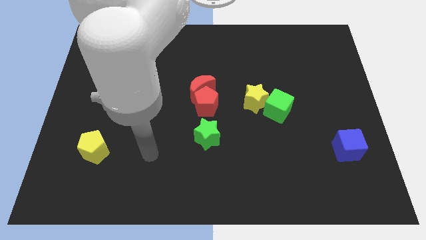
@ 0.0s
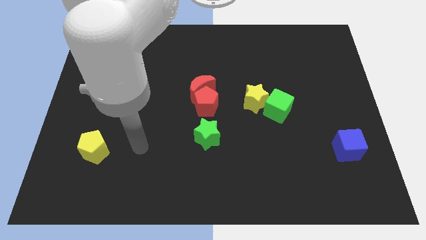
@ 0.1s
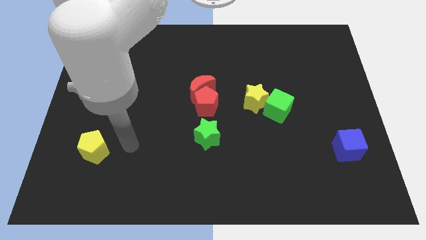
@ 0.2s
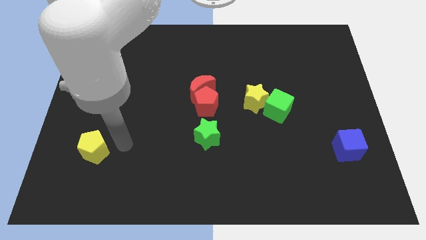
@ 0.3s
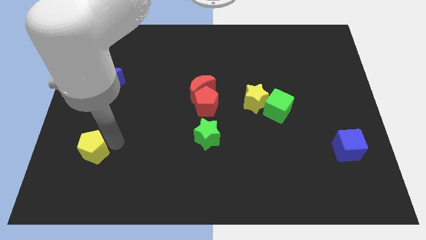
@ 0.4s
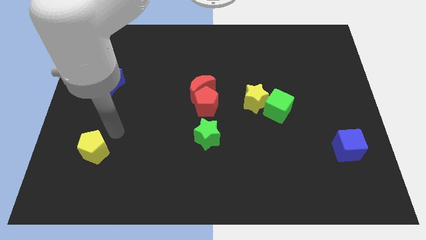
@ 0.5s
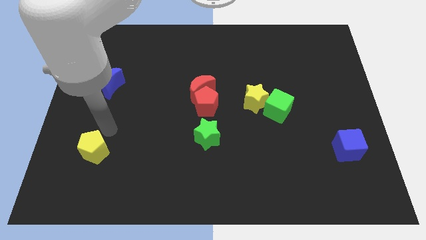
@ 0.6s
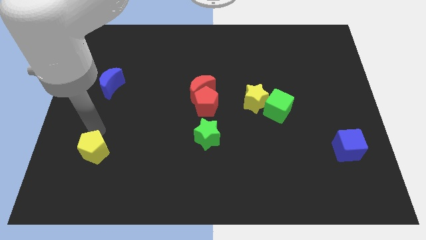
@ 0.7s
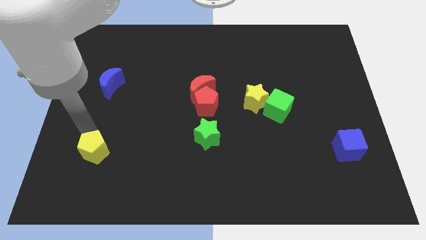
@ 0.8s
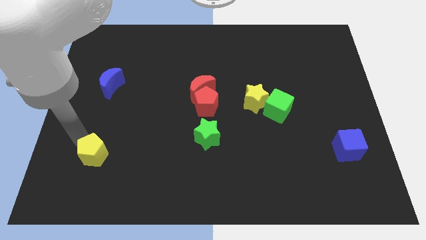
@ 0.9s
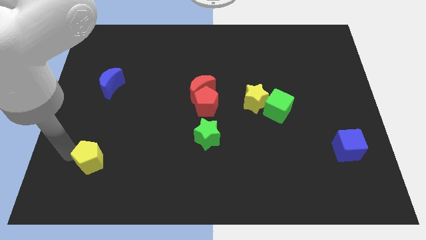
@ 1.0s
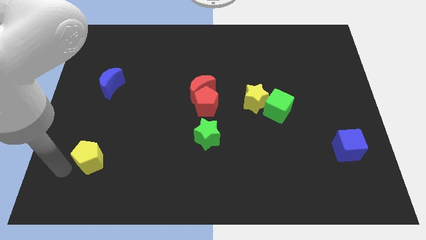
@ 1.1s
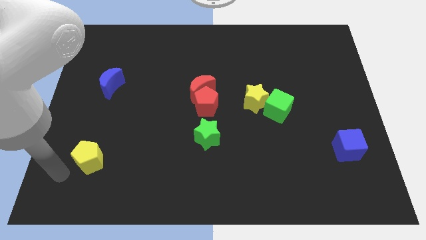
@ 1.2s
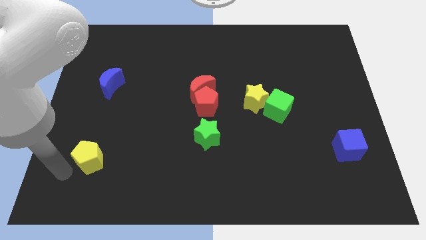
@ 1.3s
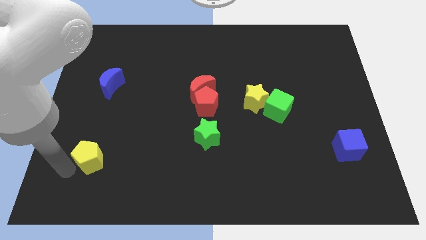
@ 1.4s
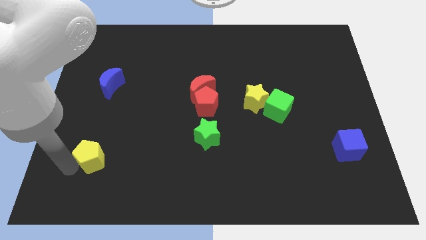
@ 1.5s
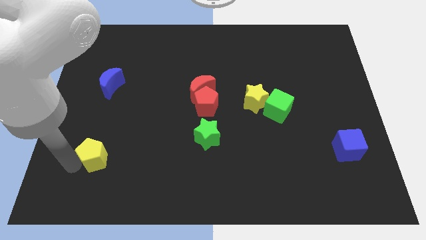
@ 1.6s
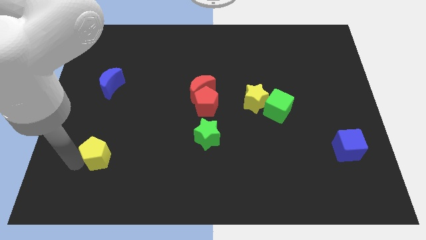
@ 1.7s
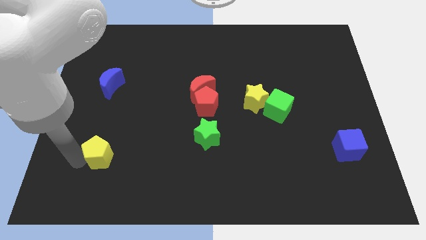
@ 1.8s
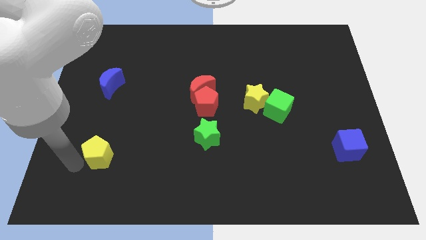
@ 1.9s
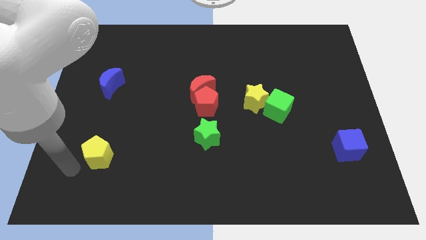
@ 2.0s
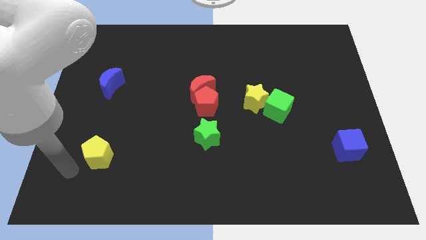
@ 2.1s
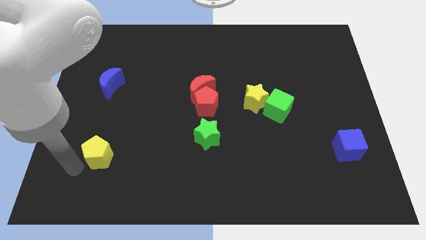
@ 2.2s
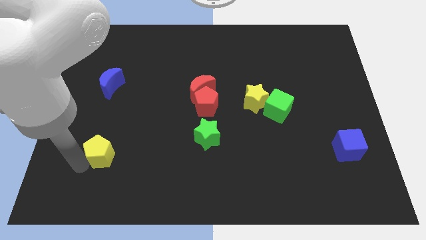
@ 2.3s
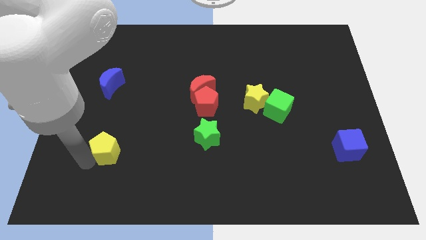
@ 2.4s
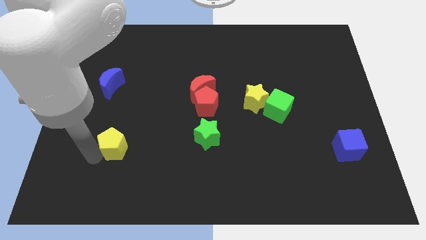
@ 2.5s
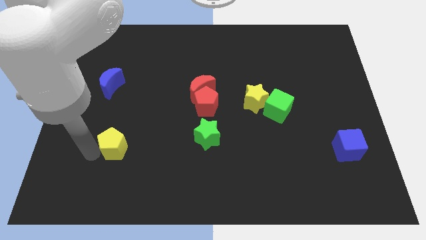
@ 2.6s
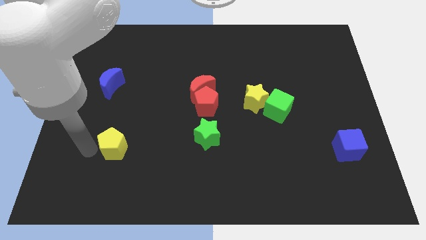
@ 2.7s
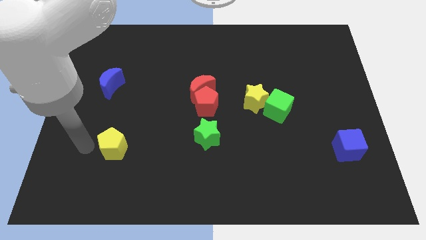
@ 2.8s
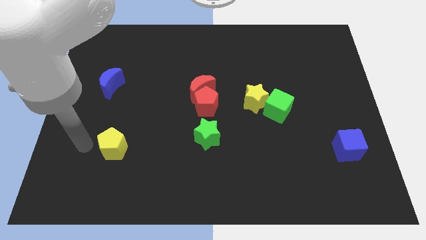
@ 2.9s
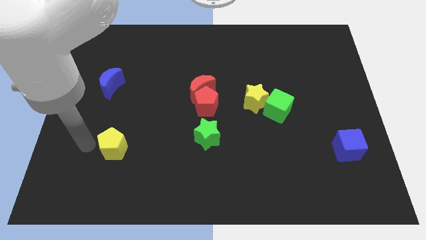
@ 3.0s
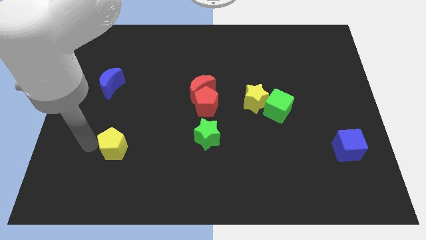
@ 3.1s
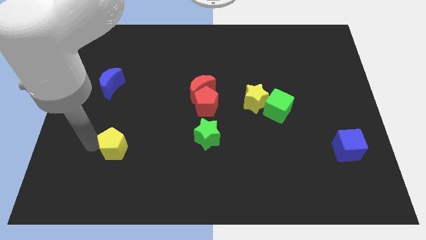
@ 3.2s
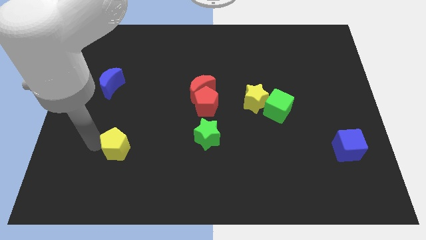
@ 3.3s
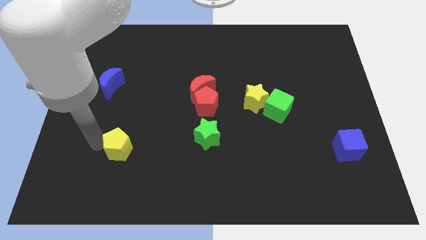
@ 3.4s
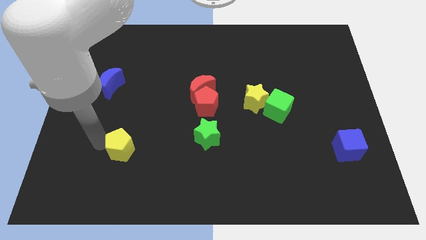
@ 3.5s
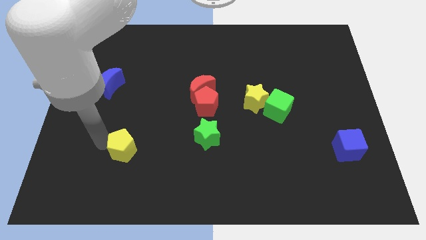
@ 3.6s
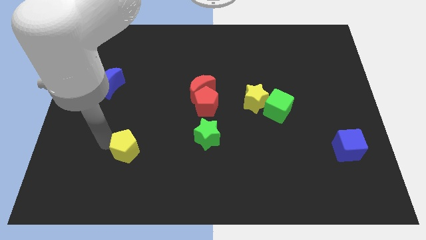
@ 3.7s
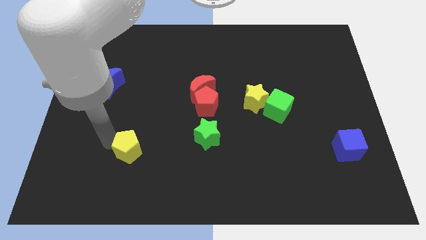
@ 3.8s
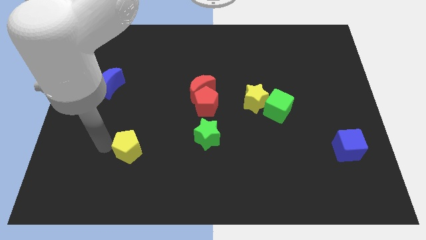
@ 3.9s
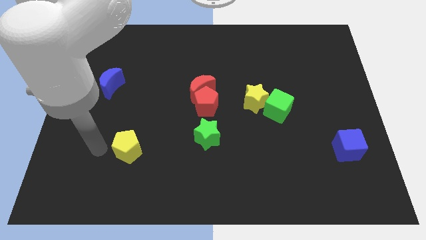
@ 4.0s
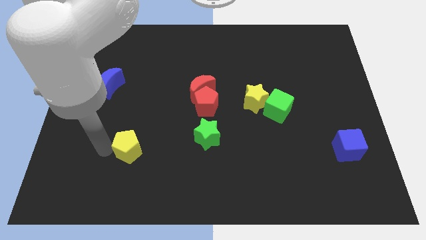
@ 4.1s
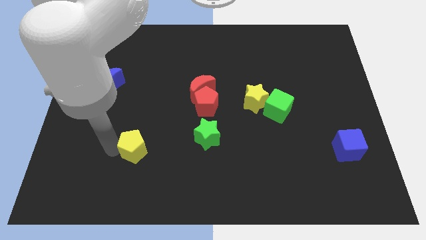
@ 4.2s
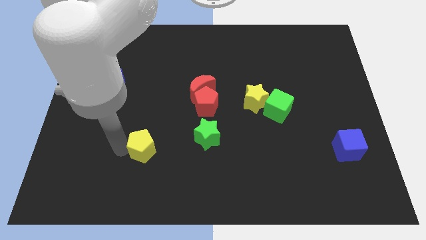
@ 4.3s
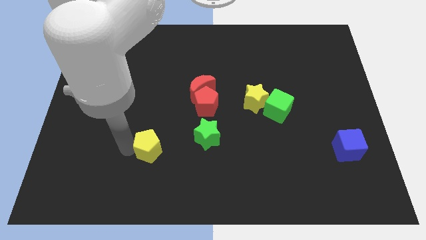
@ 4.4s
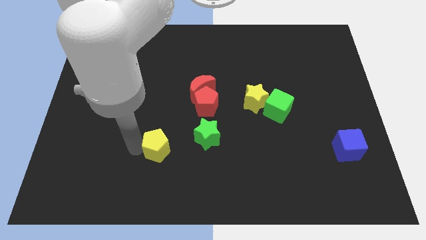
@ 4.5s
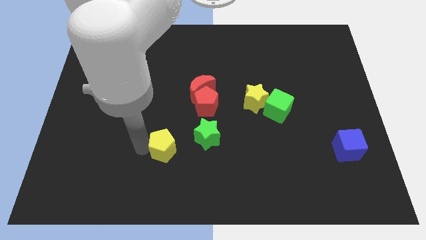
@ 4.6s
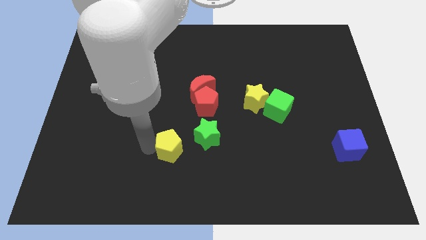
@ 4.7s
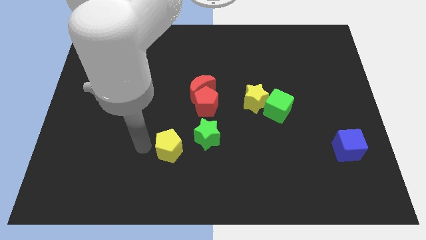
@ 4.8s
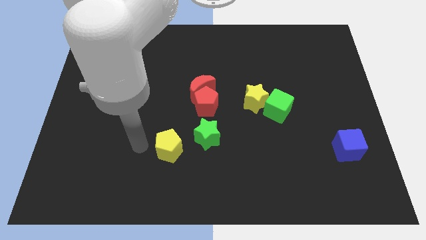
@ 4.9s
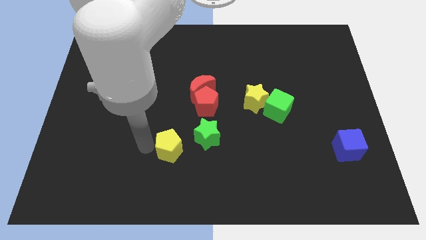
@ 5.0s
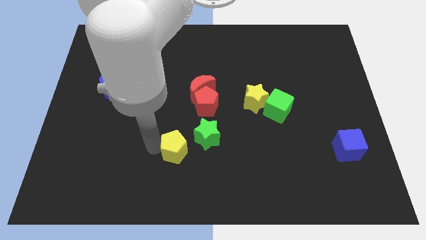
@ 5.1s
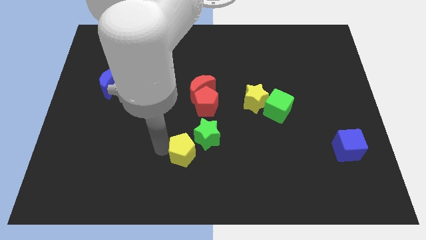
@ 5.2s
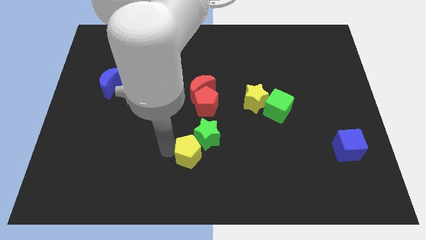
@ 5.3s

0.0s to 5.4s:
move the yellow pentagon right

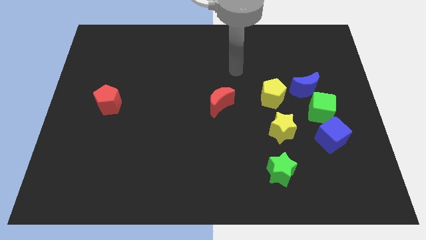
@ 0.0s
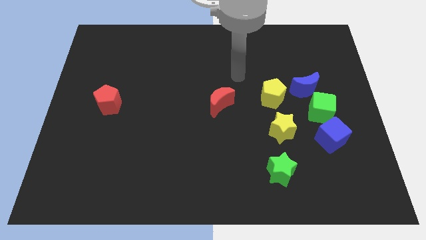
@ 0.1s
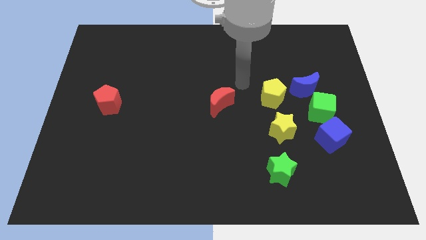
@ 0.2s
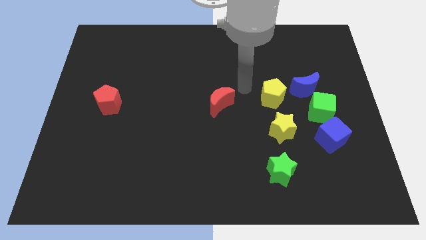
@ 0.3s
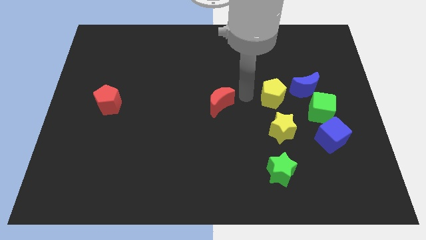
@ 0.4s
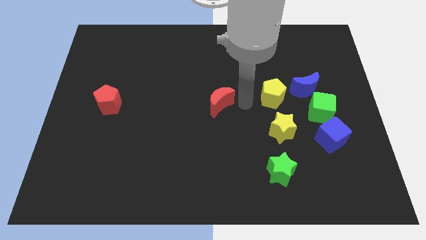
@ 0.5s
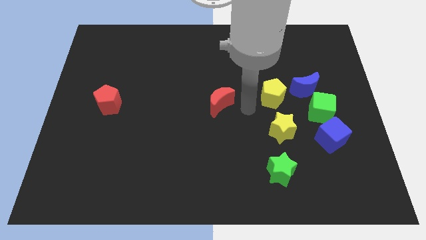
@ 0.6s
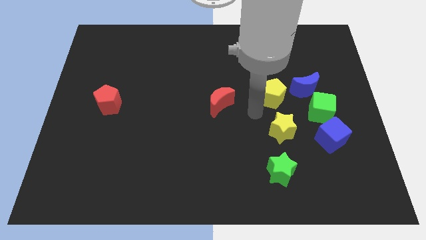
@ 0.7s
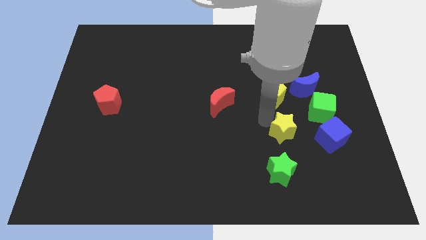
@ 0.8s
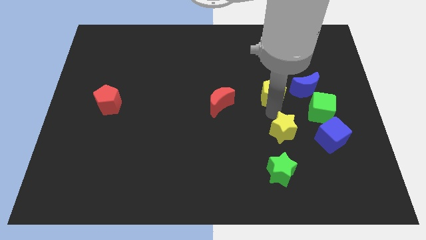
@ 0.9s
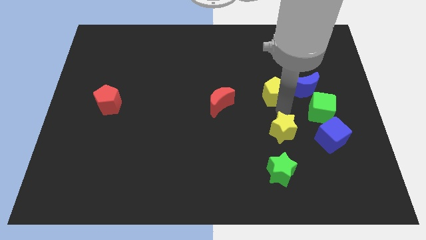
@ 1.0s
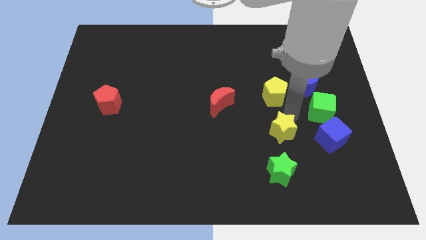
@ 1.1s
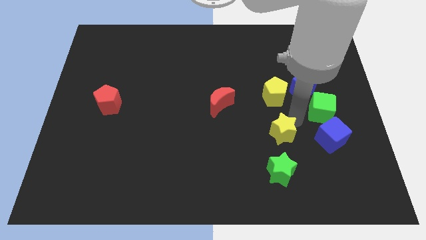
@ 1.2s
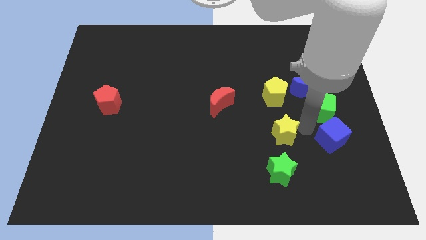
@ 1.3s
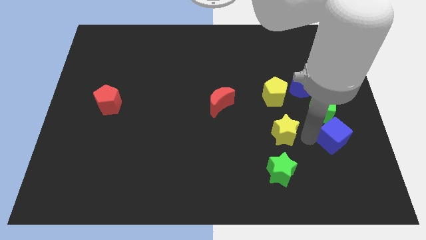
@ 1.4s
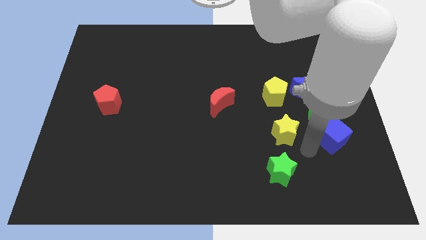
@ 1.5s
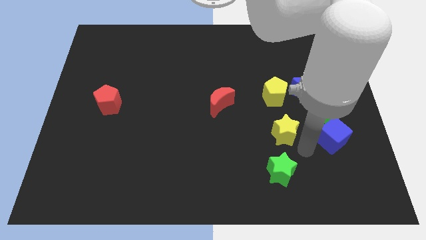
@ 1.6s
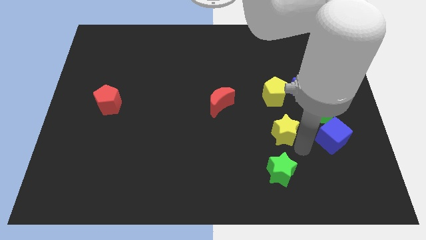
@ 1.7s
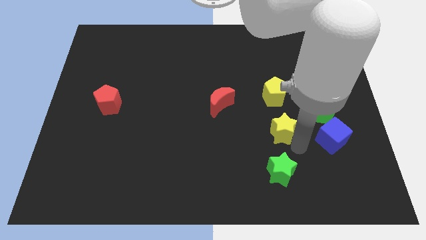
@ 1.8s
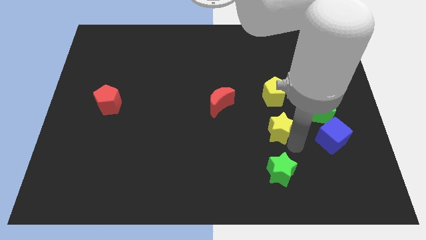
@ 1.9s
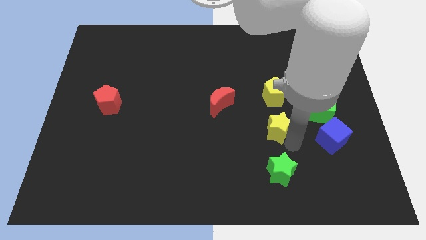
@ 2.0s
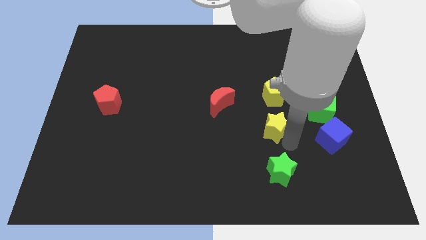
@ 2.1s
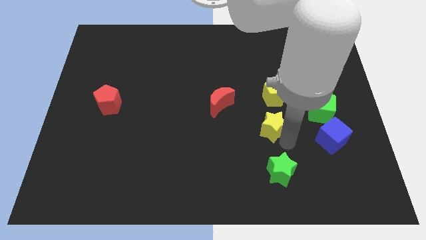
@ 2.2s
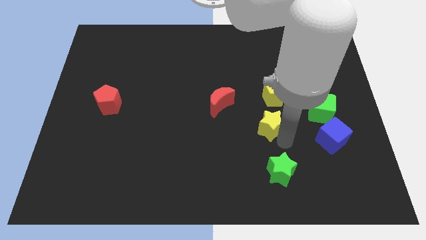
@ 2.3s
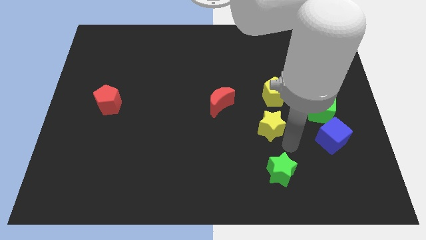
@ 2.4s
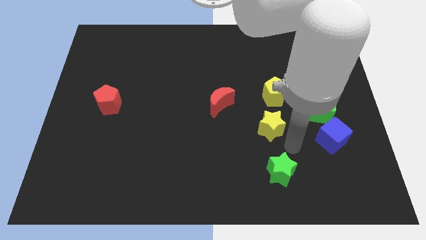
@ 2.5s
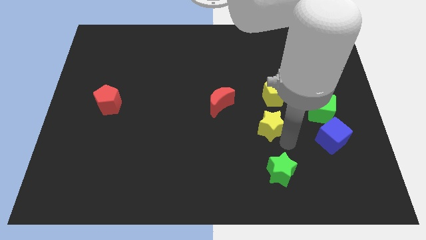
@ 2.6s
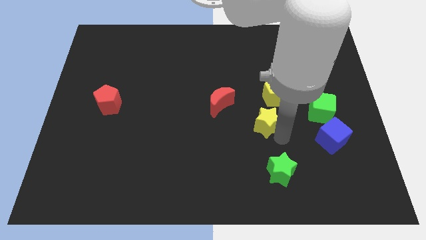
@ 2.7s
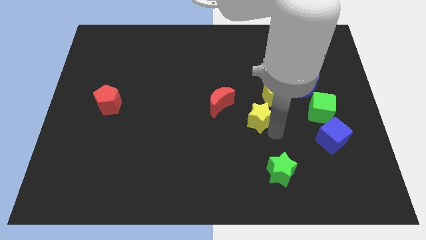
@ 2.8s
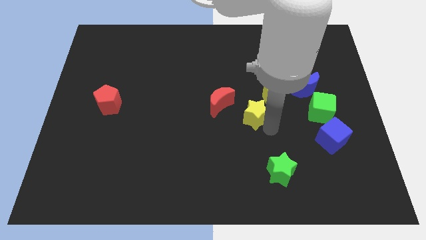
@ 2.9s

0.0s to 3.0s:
move the yellow star slightly up and then left
